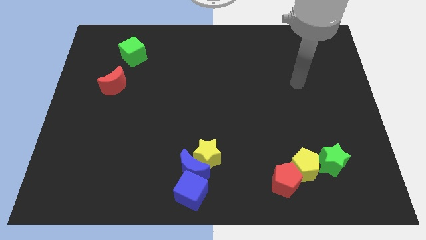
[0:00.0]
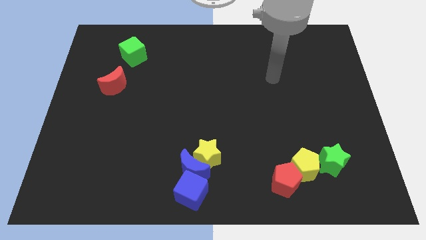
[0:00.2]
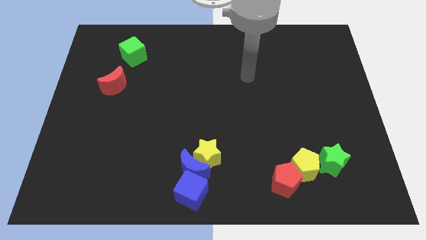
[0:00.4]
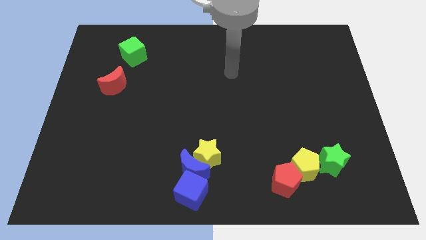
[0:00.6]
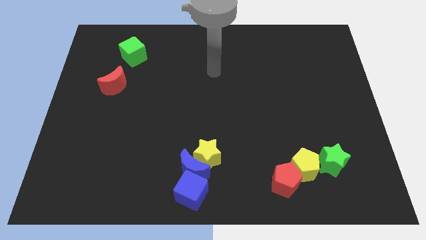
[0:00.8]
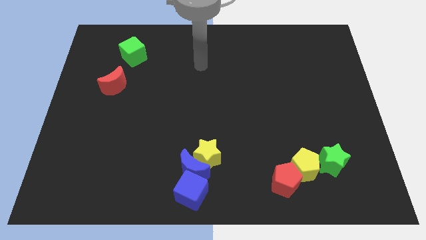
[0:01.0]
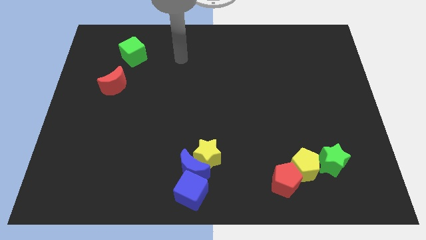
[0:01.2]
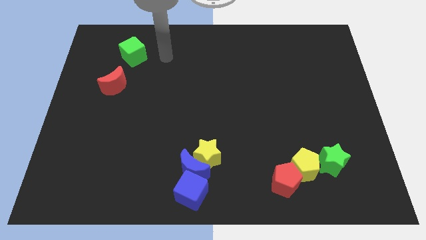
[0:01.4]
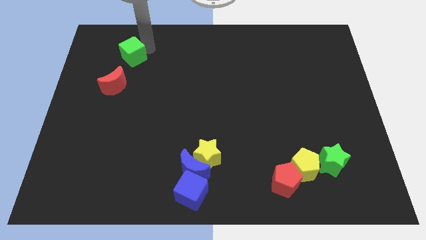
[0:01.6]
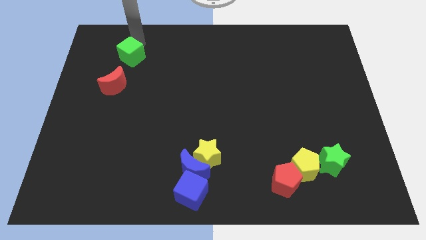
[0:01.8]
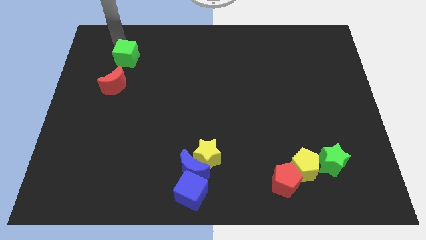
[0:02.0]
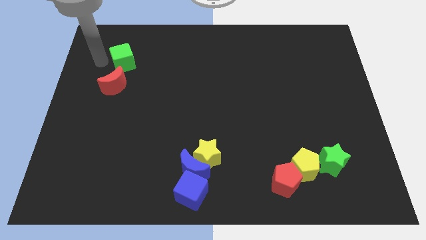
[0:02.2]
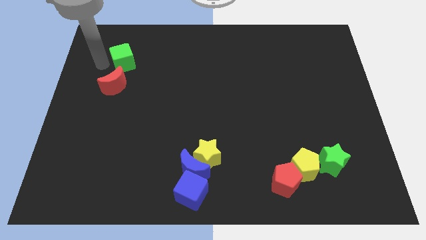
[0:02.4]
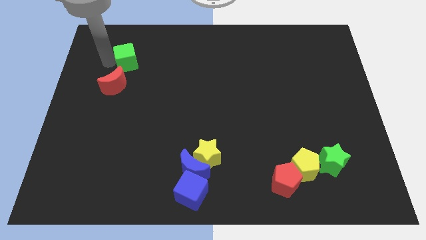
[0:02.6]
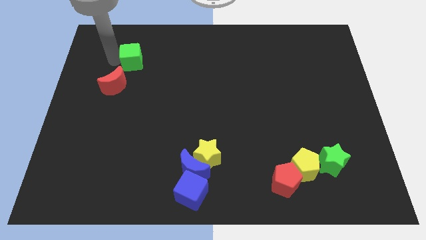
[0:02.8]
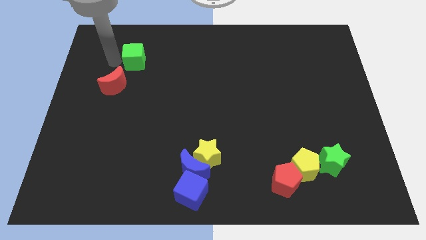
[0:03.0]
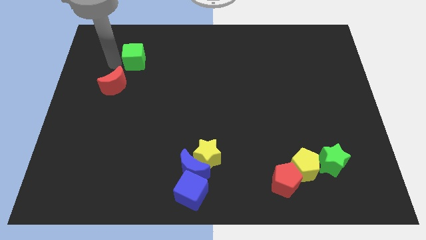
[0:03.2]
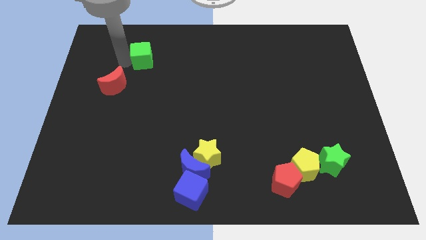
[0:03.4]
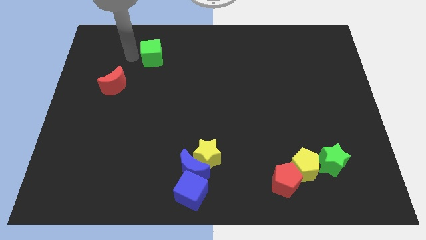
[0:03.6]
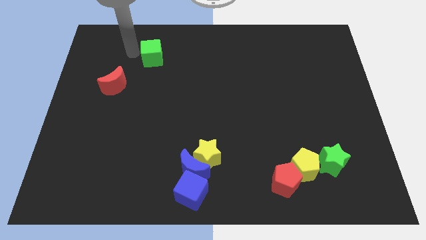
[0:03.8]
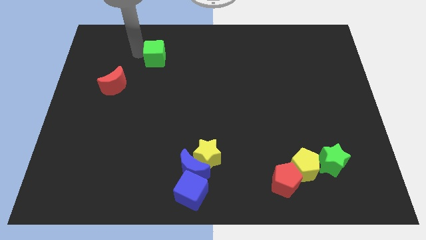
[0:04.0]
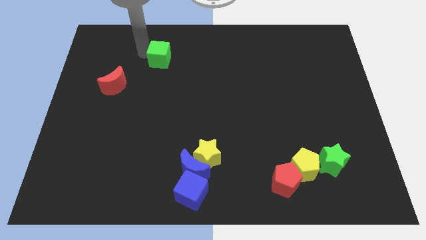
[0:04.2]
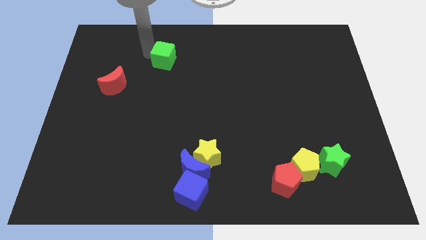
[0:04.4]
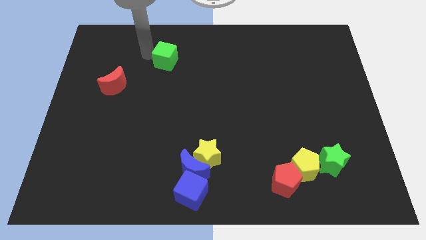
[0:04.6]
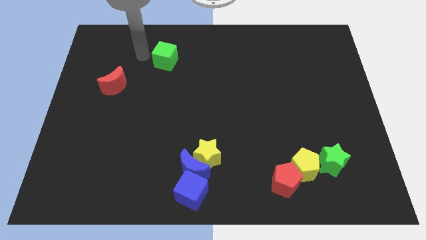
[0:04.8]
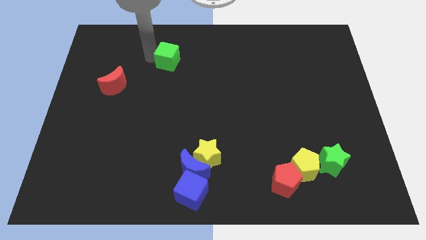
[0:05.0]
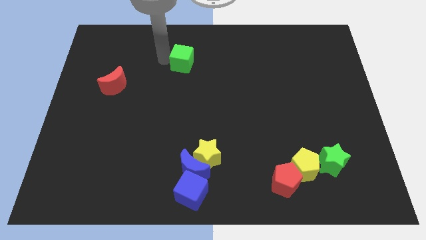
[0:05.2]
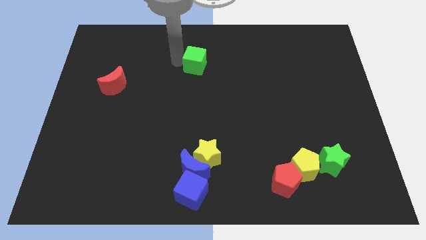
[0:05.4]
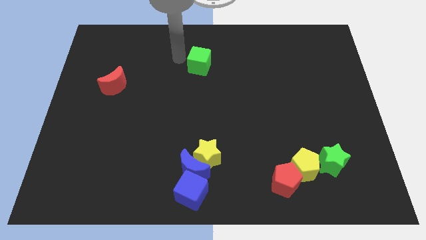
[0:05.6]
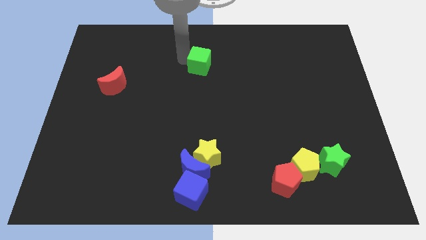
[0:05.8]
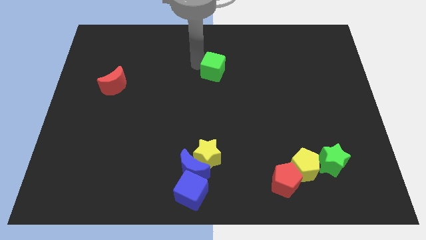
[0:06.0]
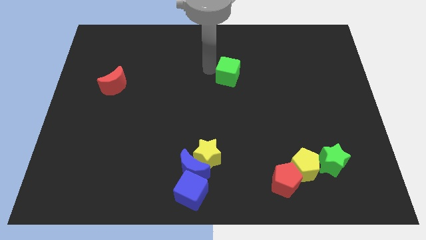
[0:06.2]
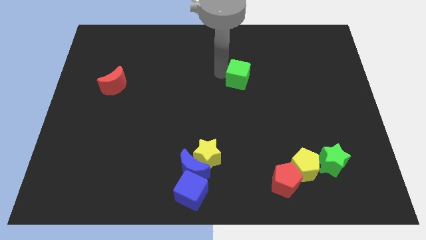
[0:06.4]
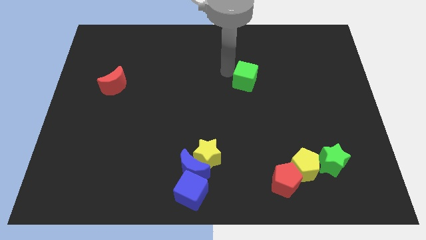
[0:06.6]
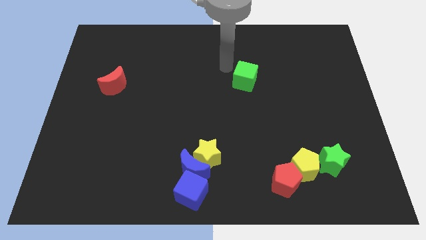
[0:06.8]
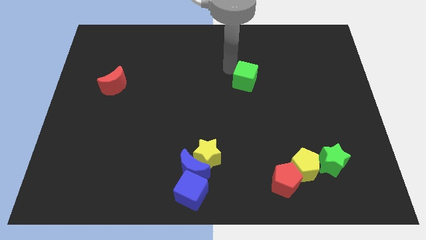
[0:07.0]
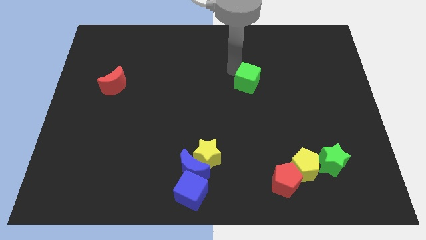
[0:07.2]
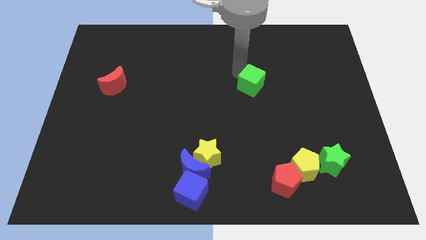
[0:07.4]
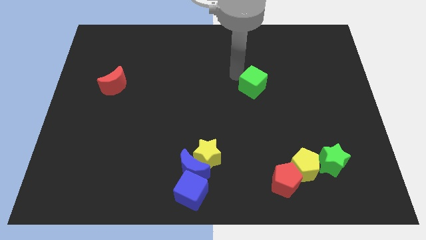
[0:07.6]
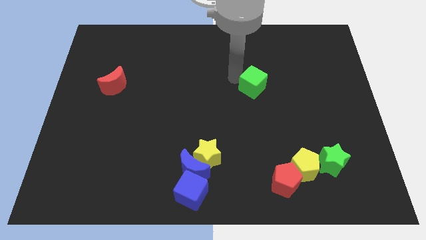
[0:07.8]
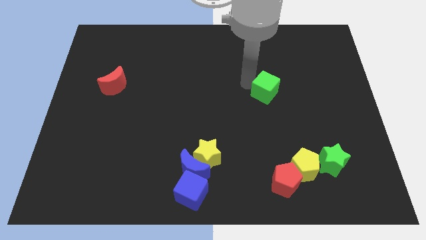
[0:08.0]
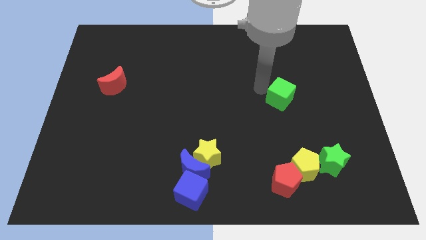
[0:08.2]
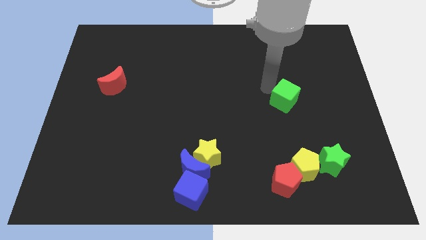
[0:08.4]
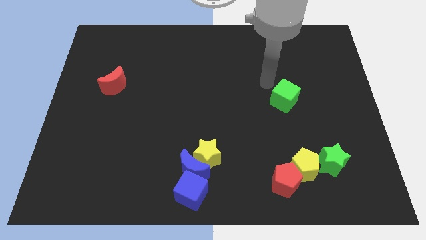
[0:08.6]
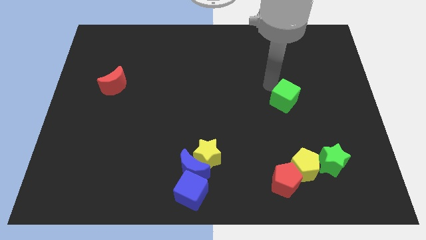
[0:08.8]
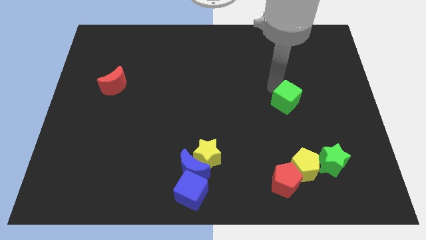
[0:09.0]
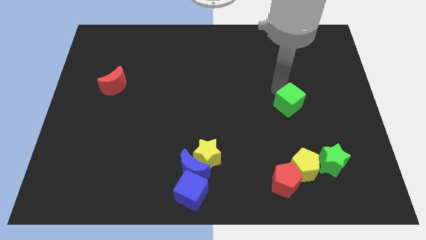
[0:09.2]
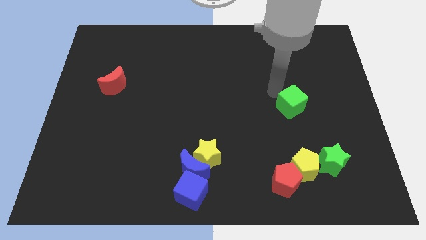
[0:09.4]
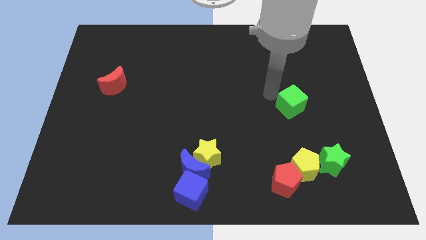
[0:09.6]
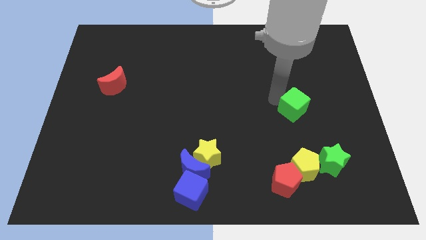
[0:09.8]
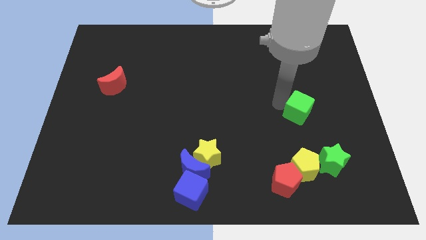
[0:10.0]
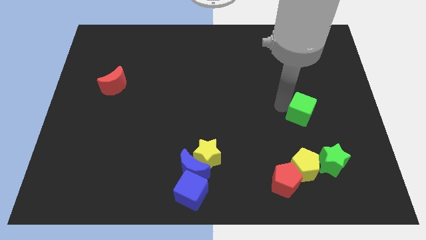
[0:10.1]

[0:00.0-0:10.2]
put the green cube above the green star

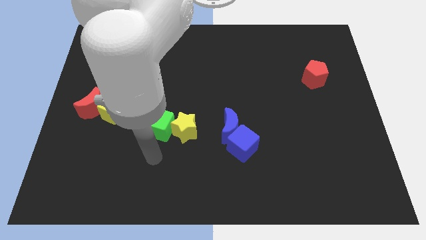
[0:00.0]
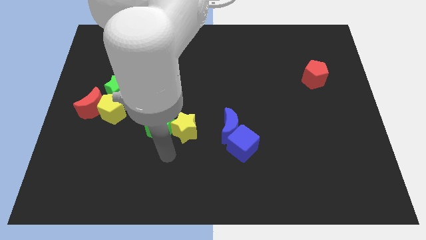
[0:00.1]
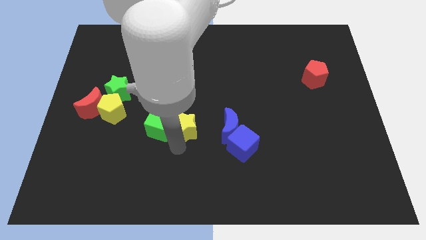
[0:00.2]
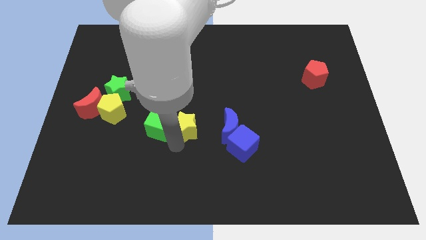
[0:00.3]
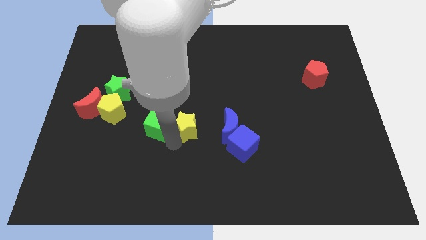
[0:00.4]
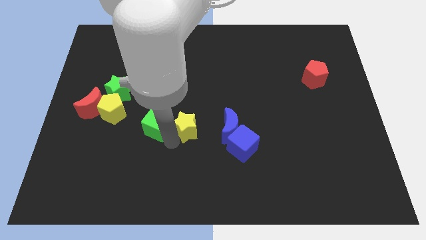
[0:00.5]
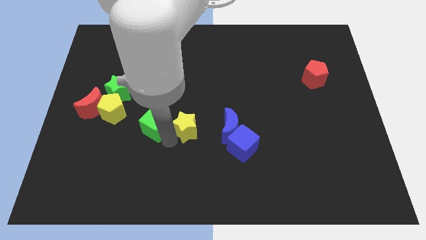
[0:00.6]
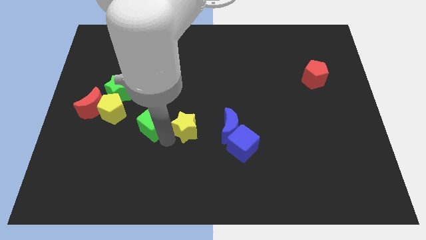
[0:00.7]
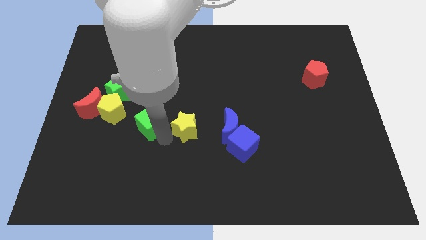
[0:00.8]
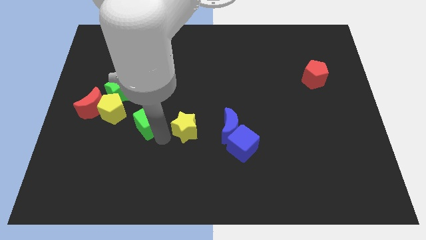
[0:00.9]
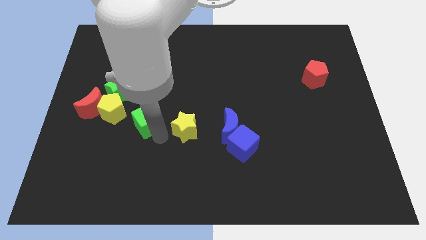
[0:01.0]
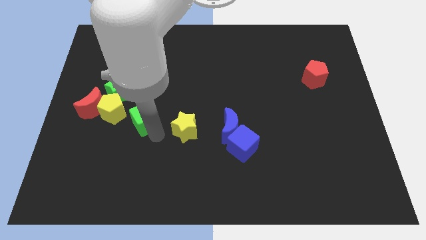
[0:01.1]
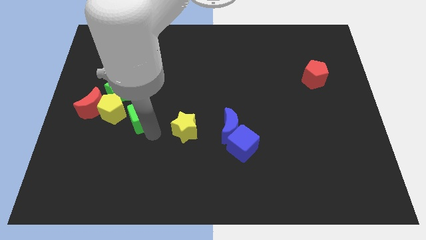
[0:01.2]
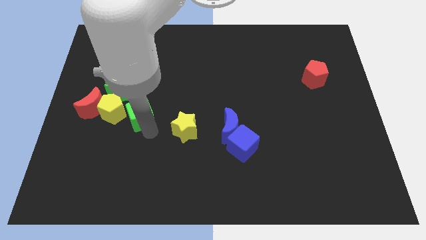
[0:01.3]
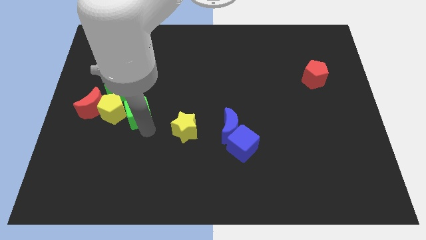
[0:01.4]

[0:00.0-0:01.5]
put the green cube to the top right side of the yellow pentagon

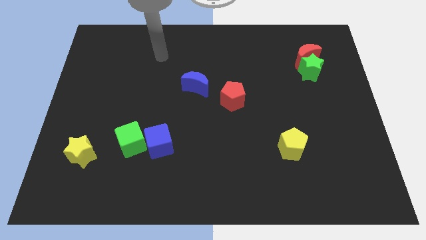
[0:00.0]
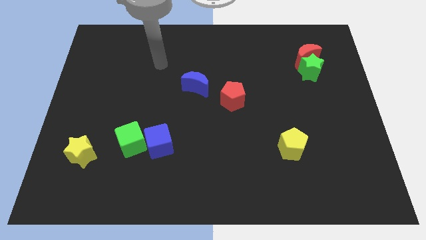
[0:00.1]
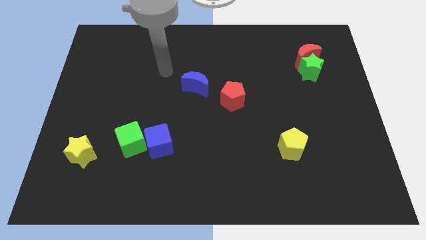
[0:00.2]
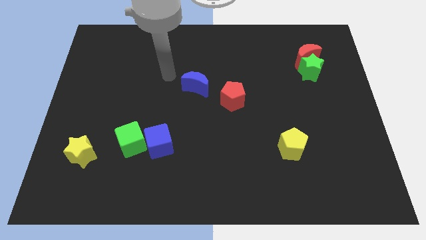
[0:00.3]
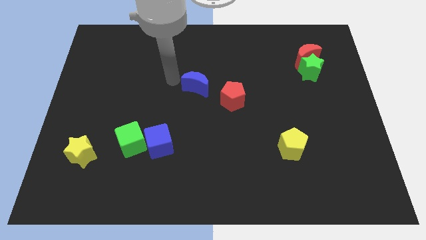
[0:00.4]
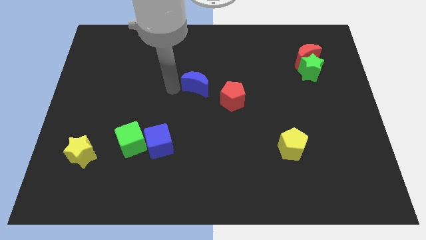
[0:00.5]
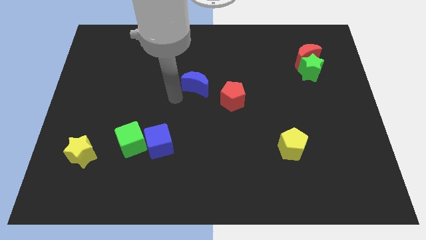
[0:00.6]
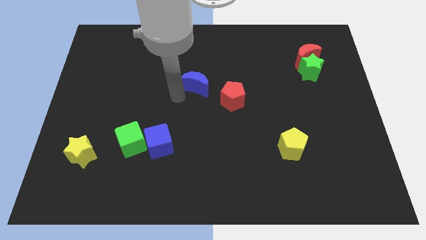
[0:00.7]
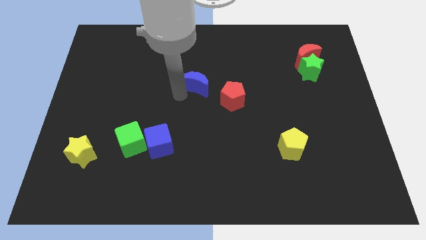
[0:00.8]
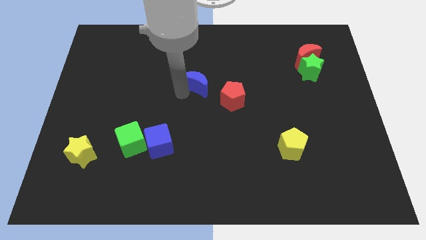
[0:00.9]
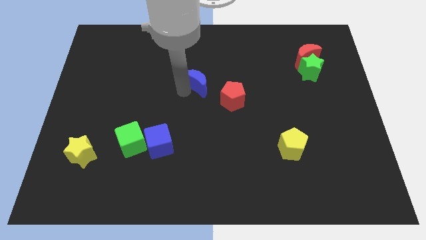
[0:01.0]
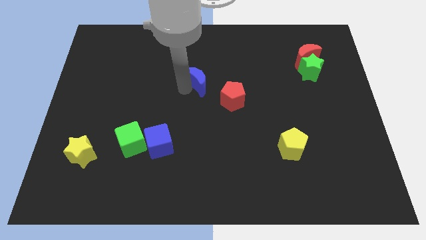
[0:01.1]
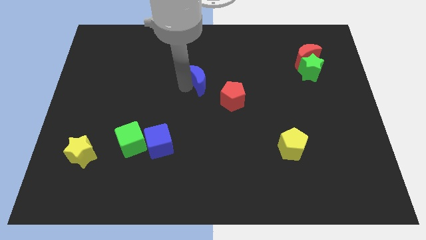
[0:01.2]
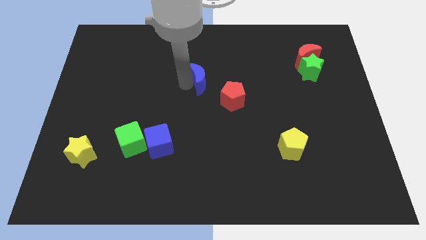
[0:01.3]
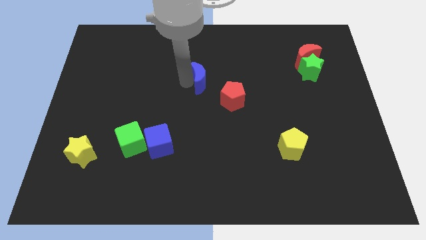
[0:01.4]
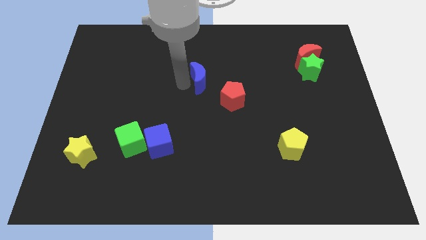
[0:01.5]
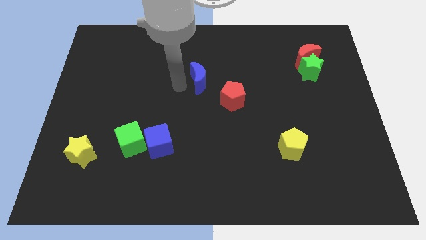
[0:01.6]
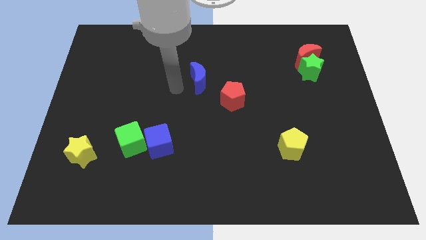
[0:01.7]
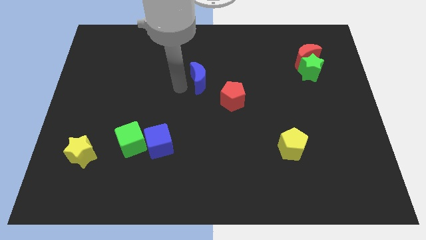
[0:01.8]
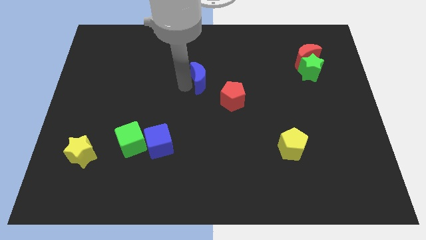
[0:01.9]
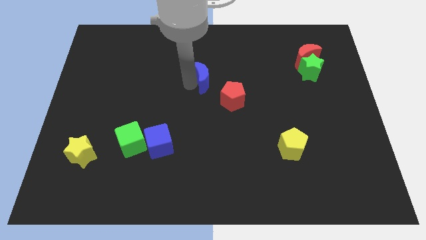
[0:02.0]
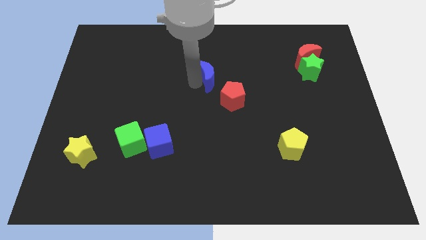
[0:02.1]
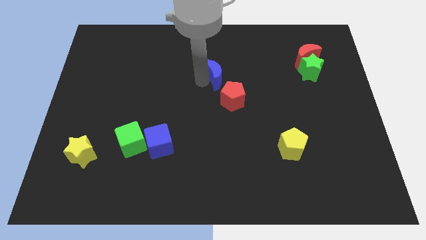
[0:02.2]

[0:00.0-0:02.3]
slide the blue moon above the red pentagon
